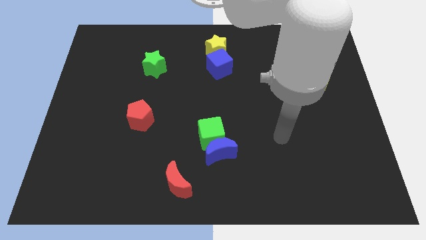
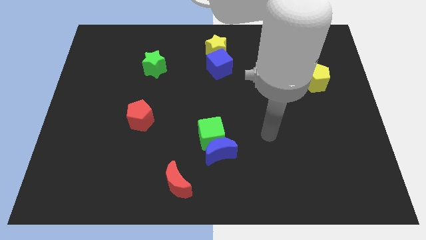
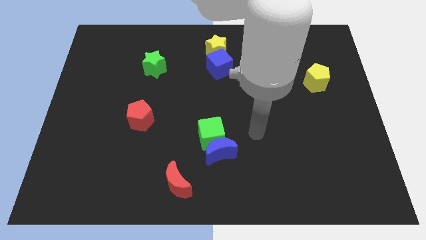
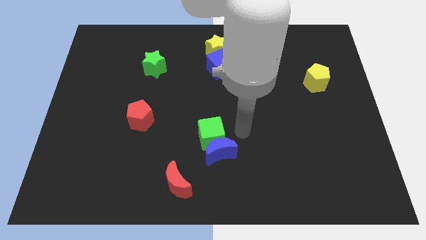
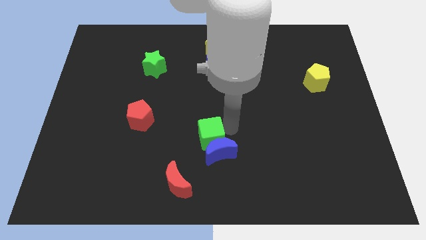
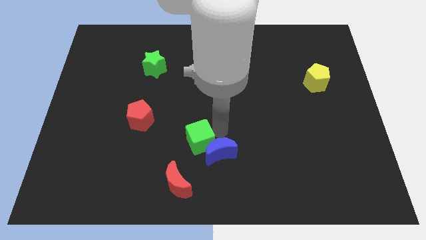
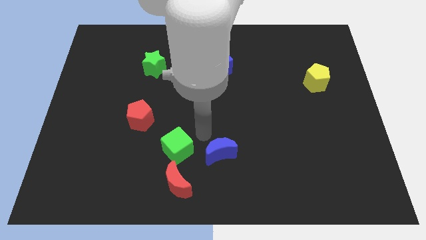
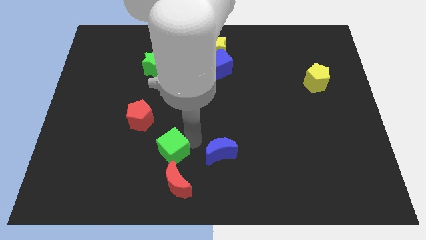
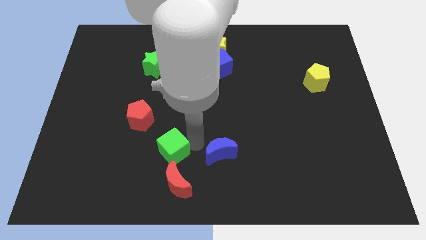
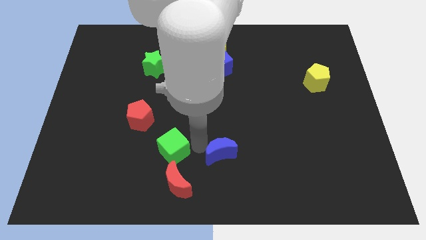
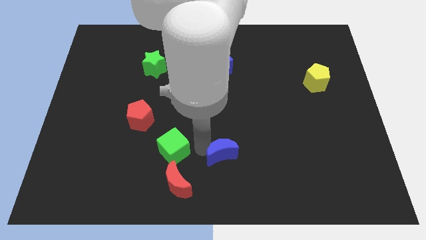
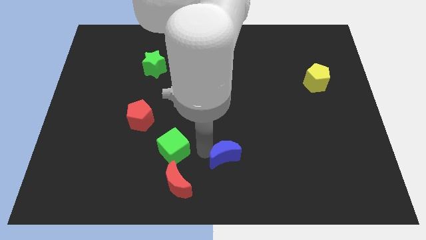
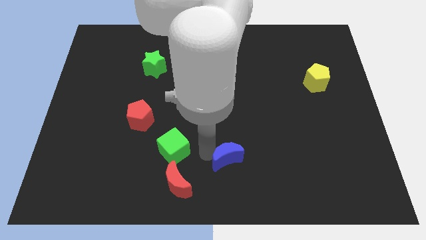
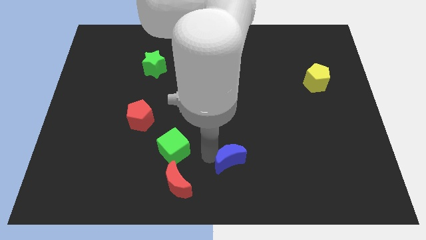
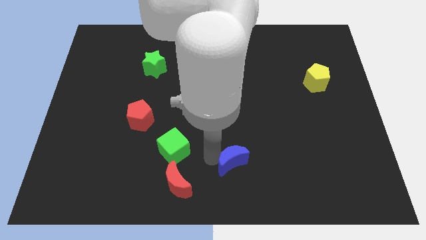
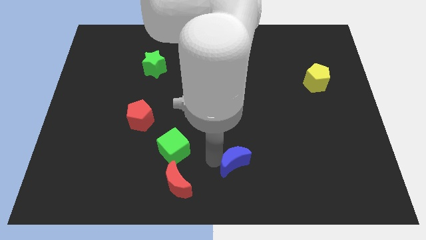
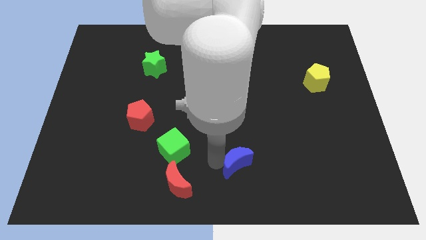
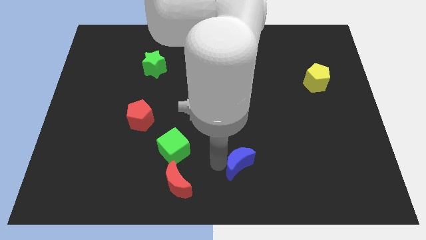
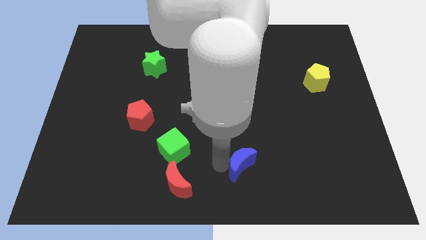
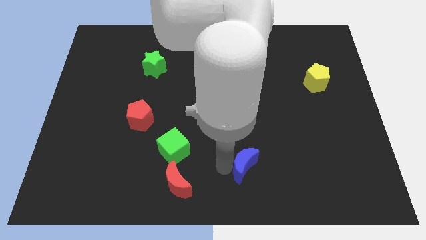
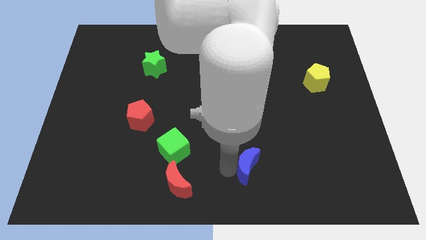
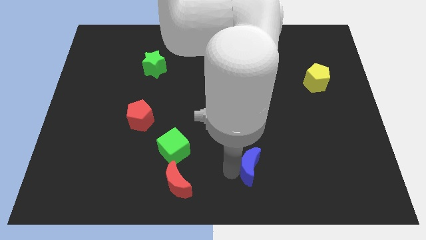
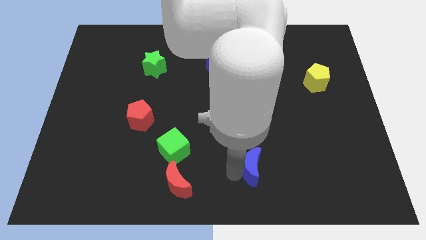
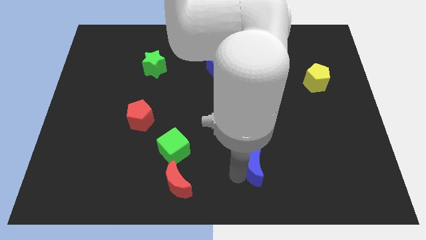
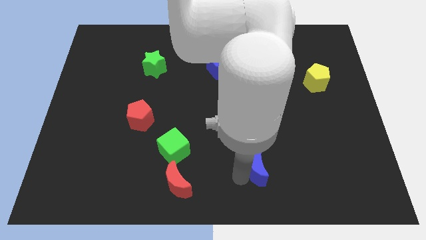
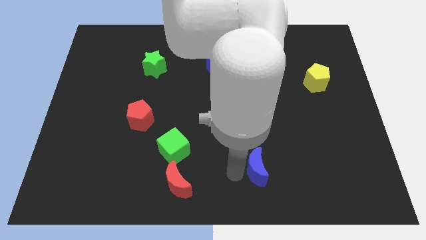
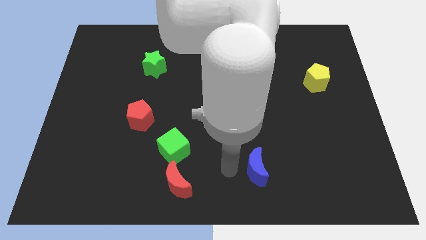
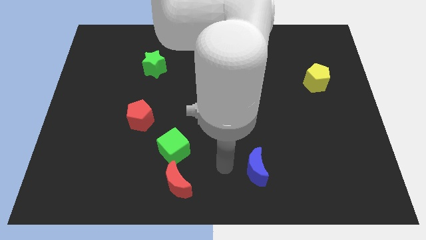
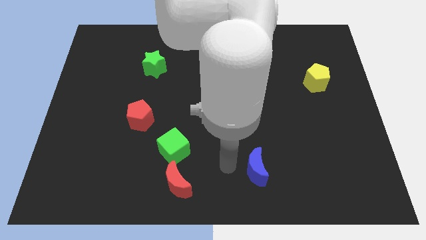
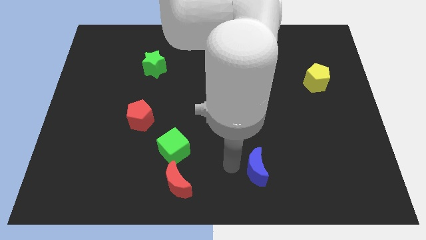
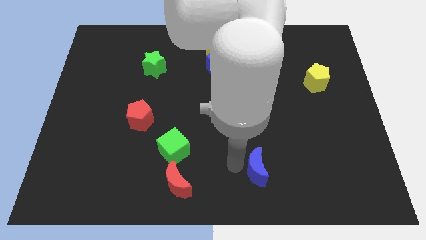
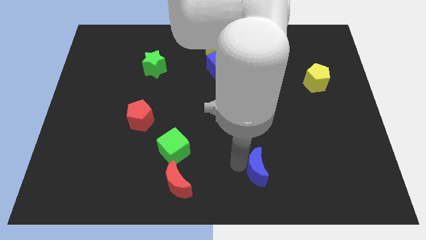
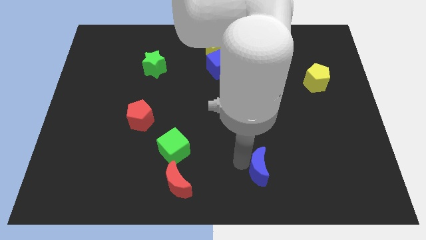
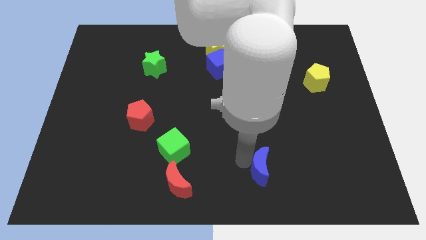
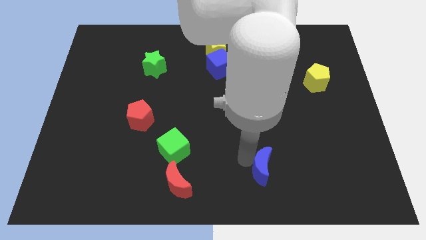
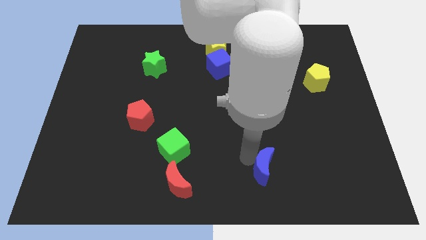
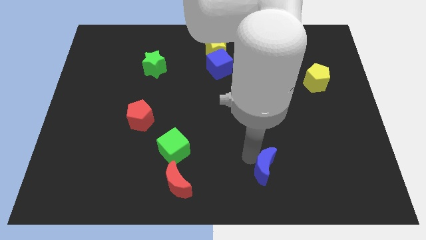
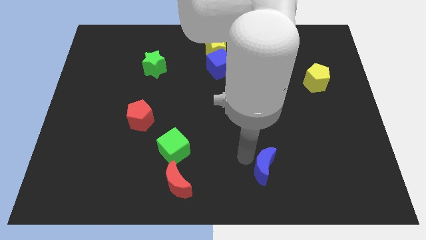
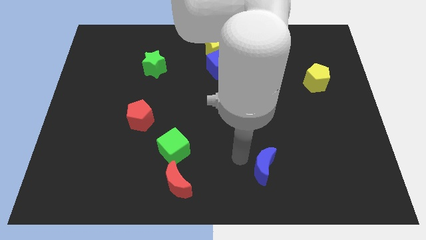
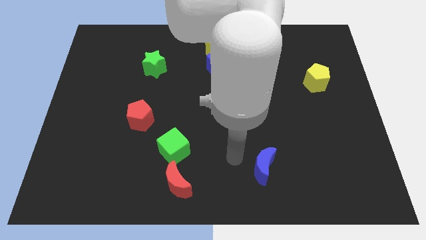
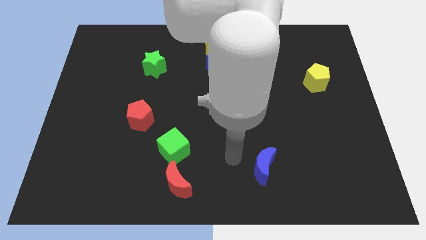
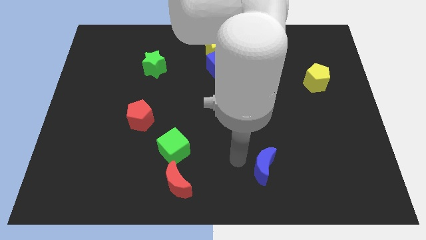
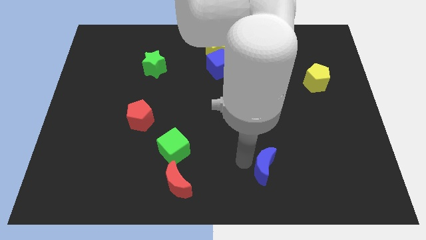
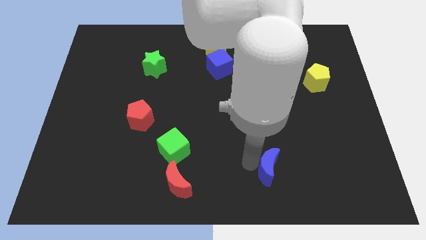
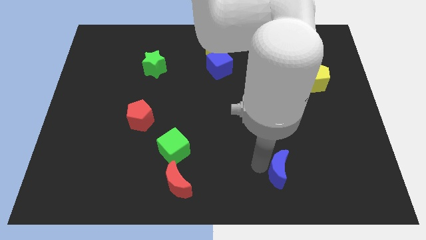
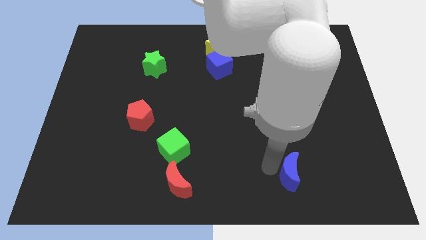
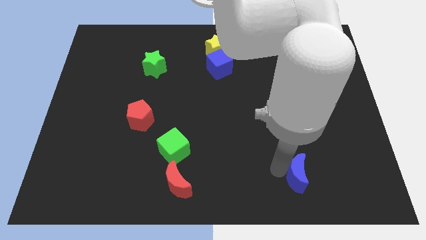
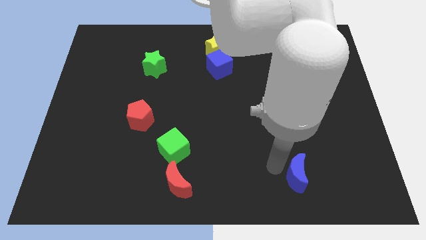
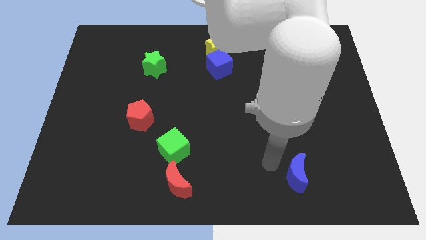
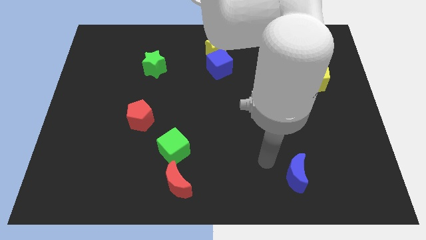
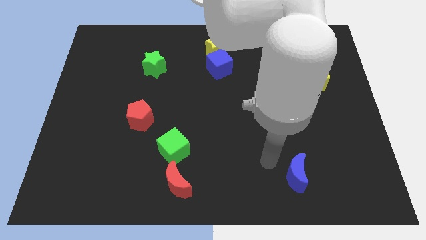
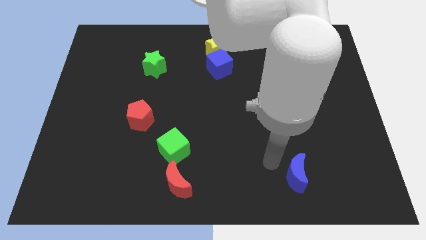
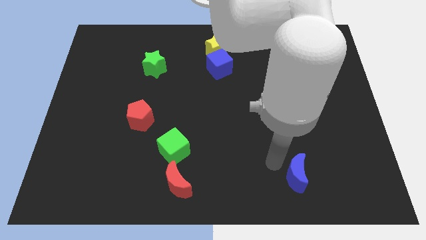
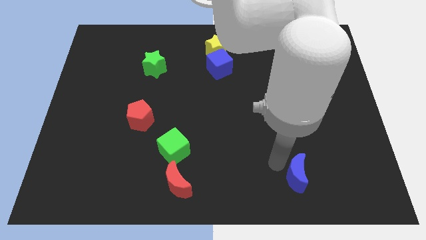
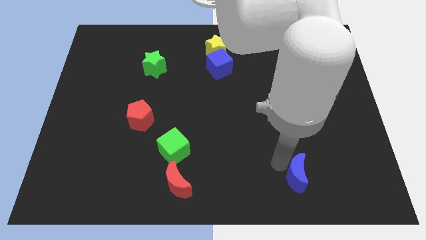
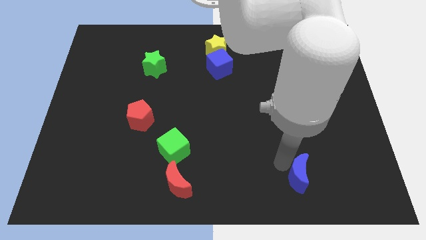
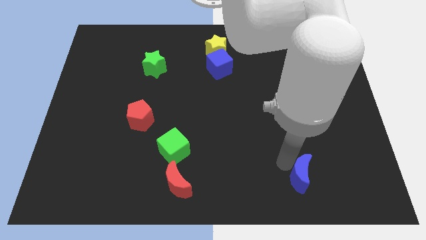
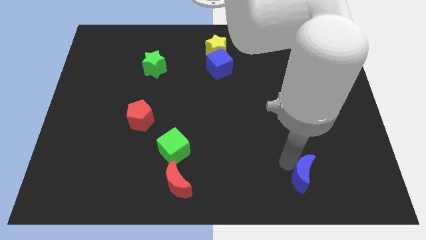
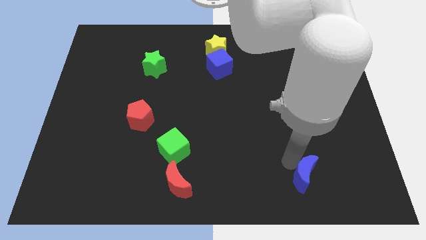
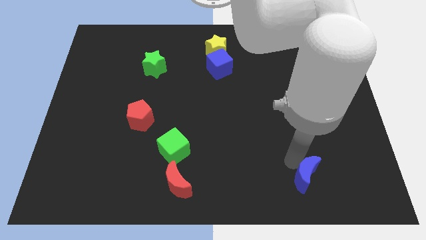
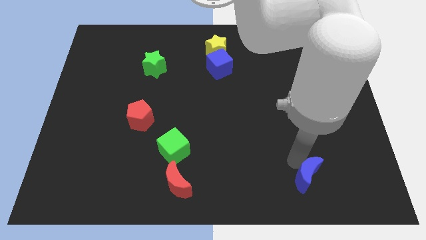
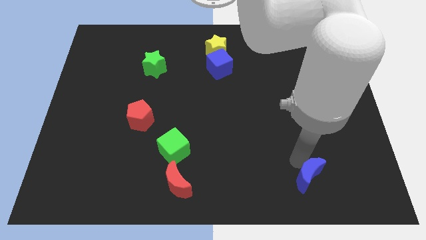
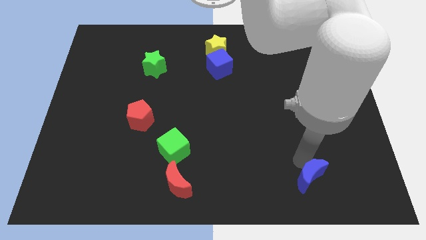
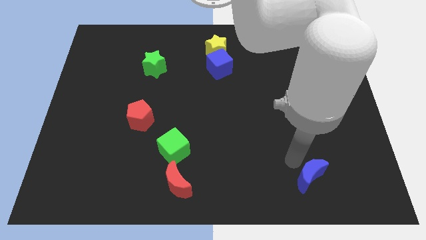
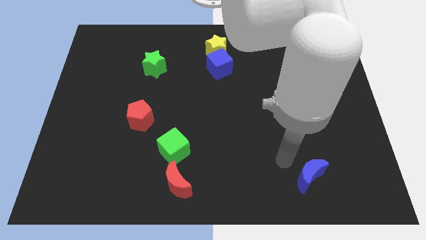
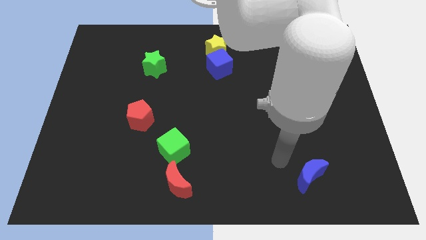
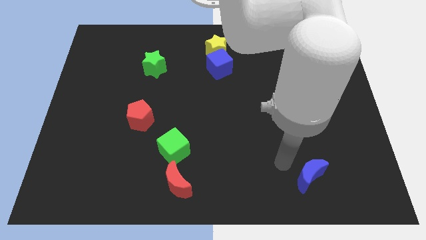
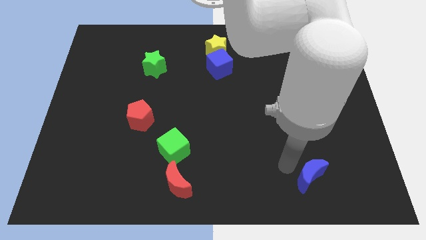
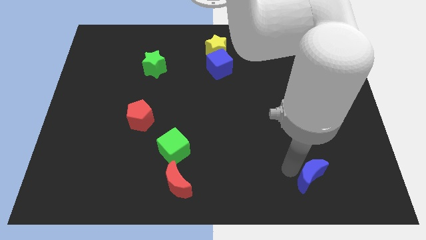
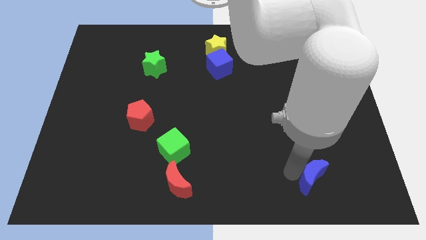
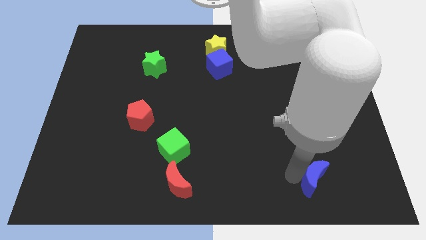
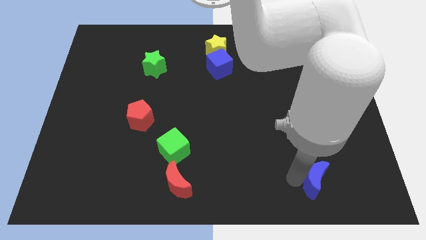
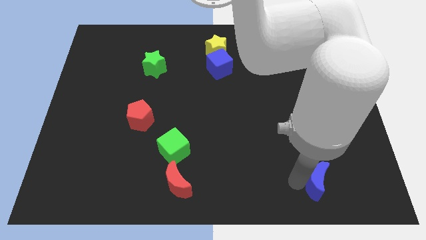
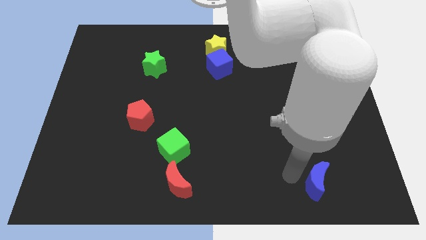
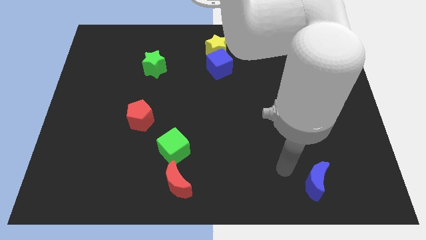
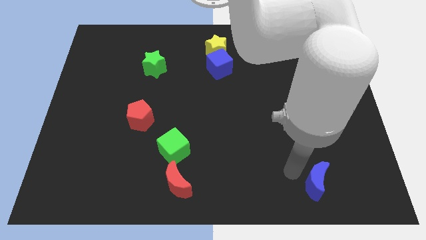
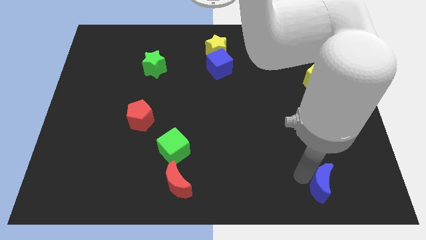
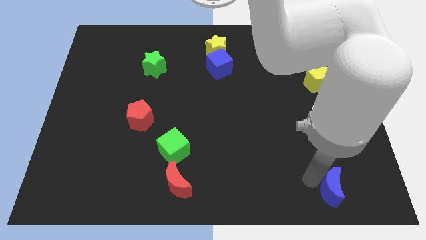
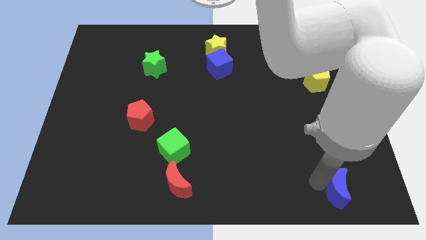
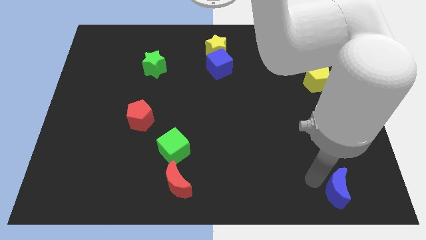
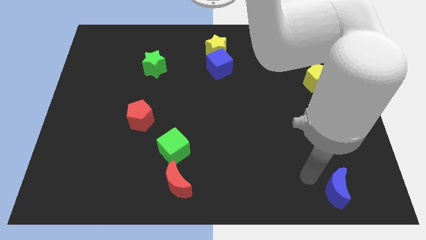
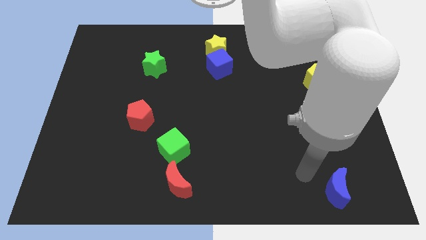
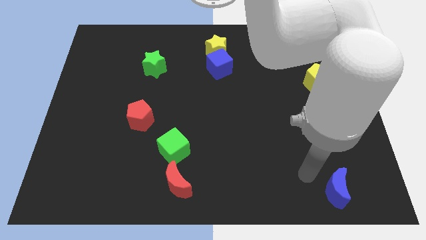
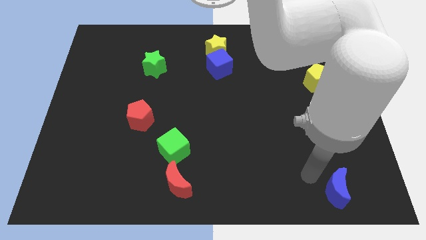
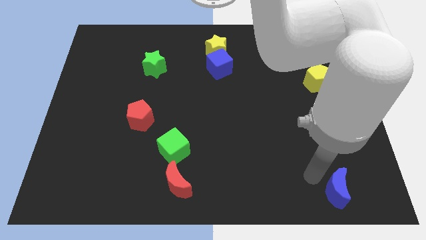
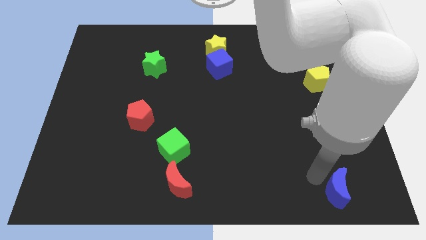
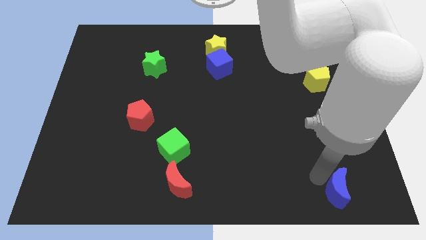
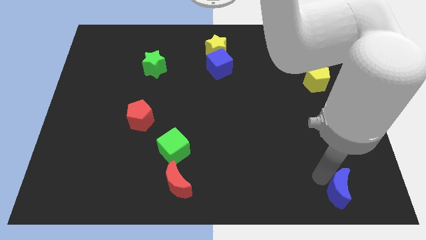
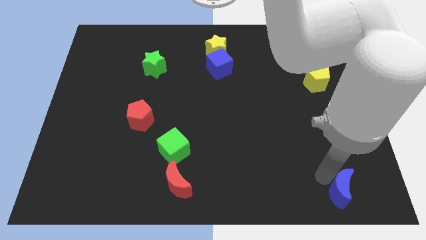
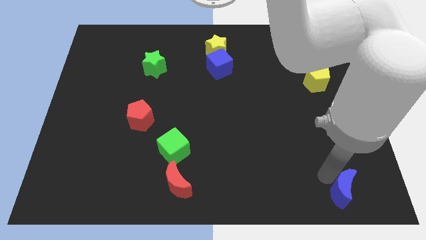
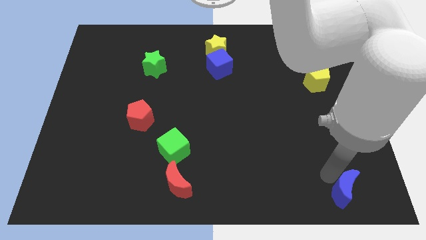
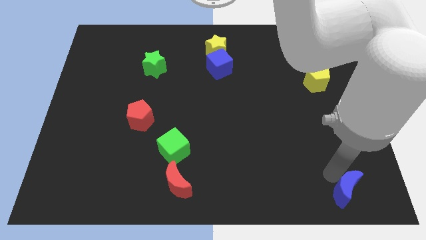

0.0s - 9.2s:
move the blue moon to the bottom right corner
